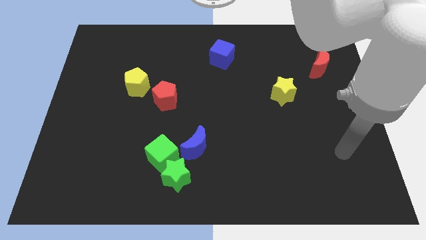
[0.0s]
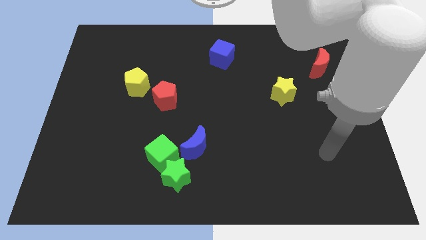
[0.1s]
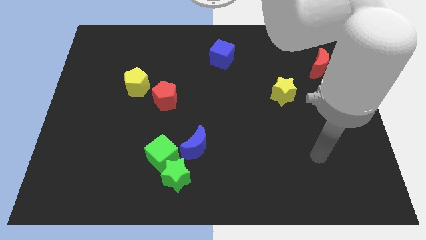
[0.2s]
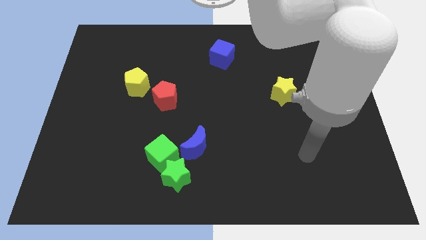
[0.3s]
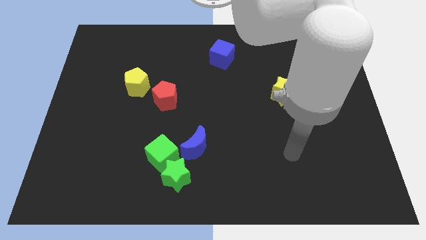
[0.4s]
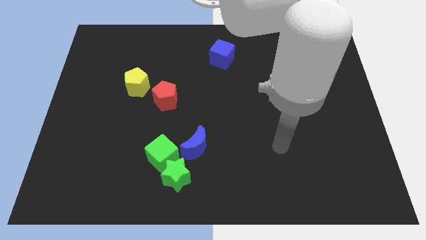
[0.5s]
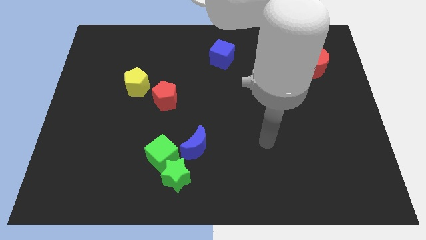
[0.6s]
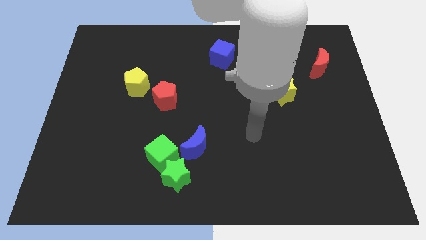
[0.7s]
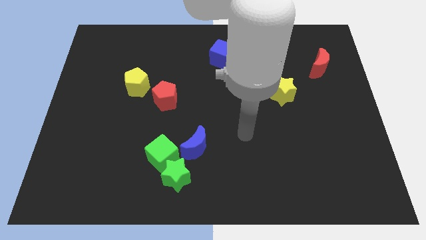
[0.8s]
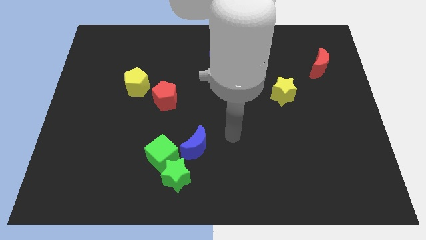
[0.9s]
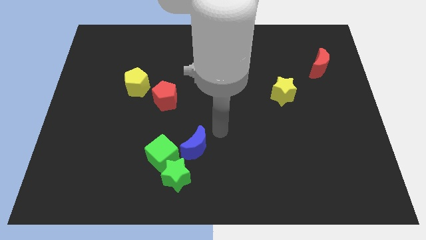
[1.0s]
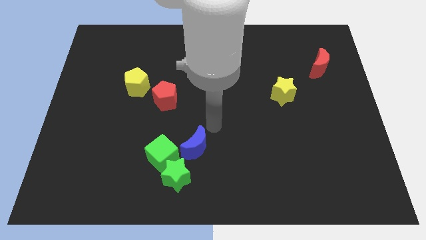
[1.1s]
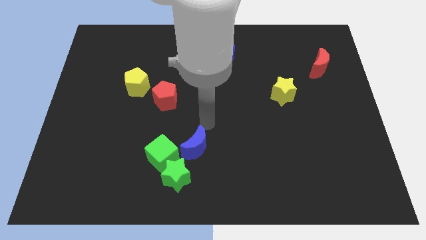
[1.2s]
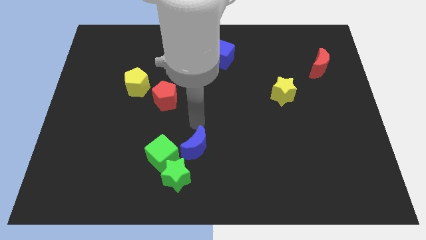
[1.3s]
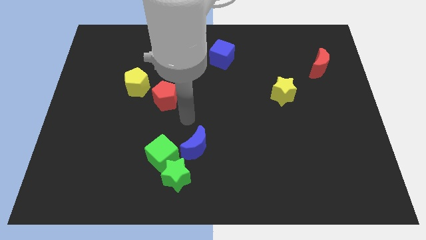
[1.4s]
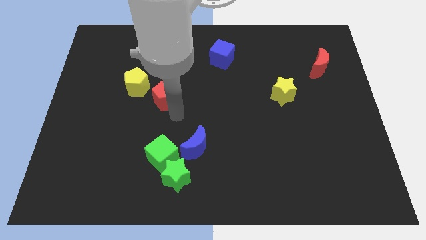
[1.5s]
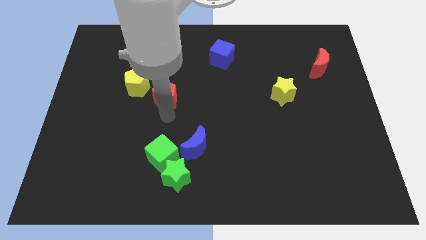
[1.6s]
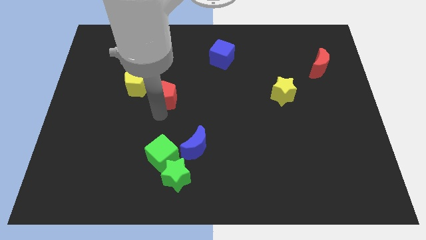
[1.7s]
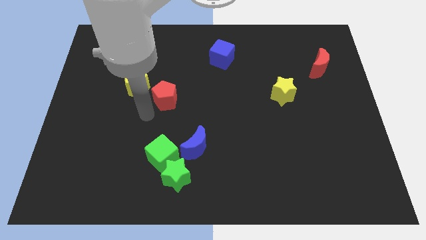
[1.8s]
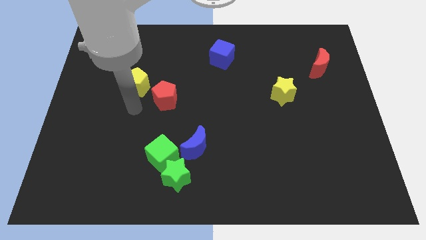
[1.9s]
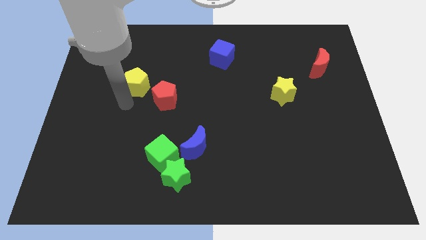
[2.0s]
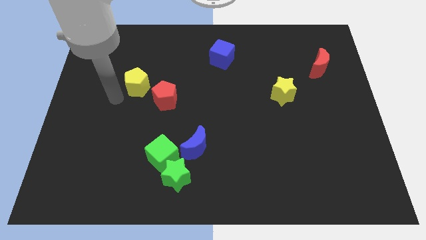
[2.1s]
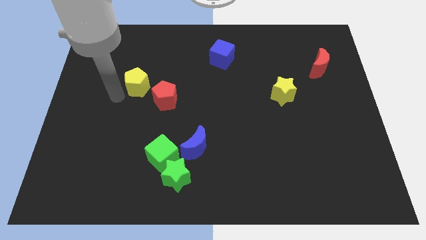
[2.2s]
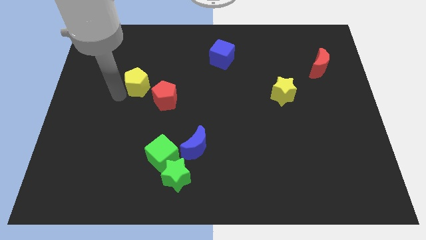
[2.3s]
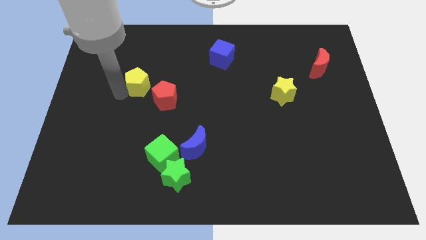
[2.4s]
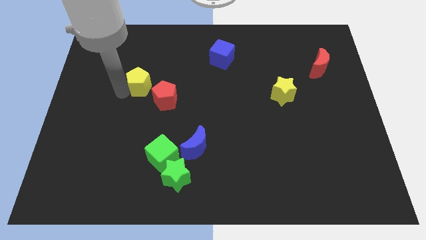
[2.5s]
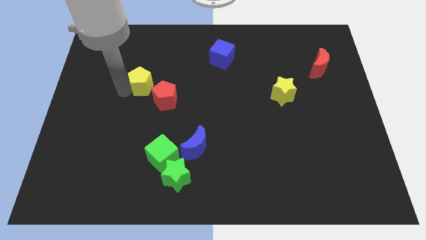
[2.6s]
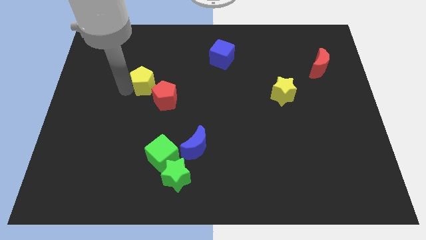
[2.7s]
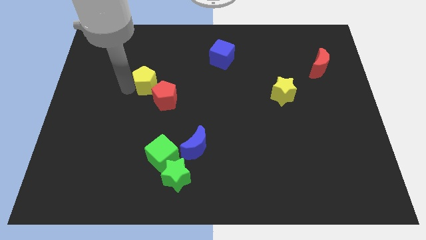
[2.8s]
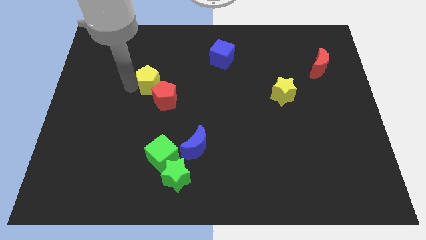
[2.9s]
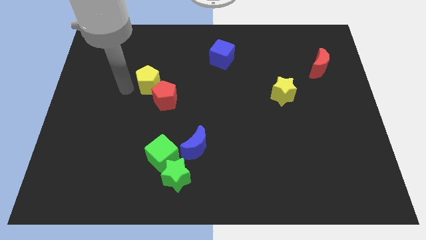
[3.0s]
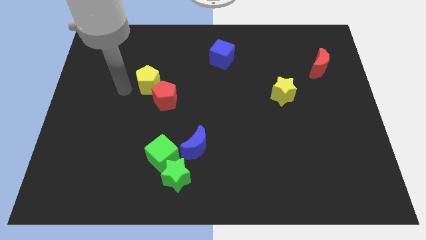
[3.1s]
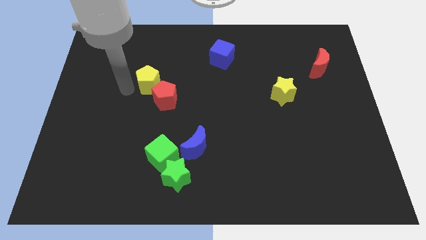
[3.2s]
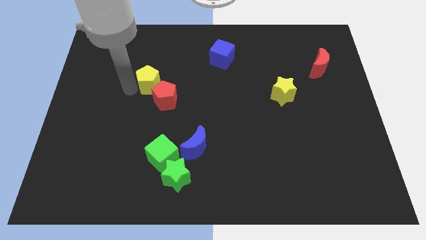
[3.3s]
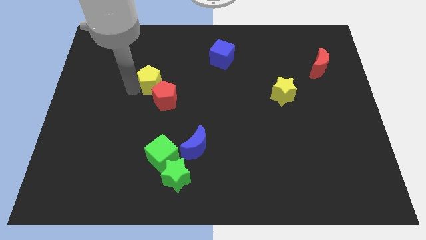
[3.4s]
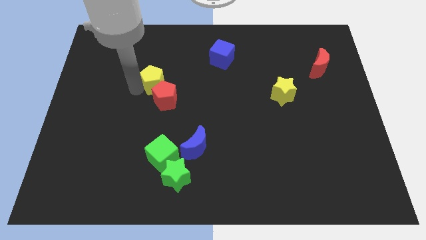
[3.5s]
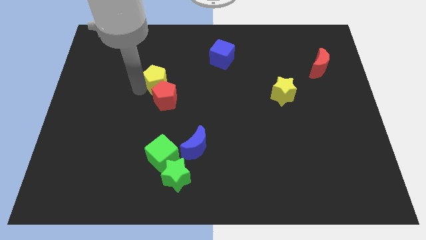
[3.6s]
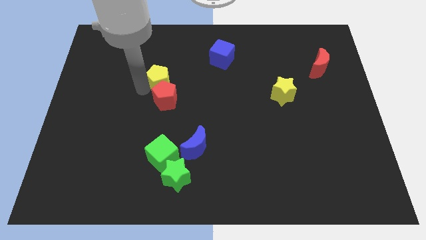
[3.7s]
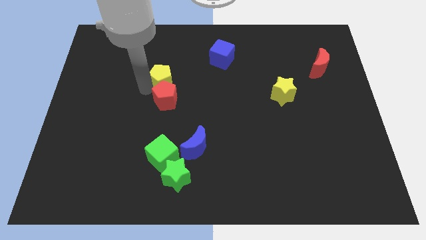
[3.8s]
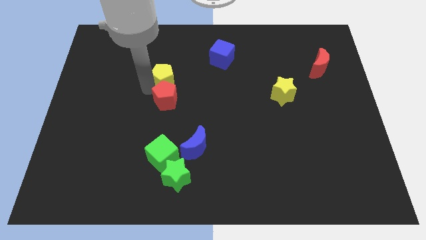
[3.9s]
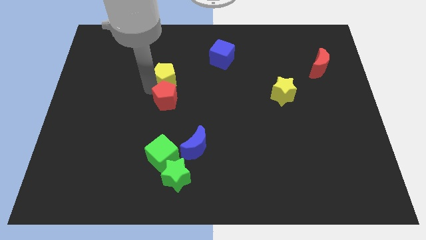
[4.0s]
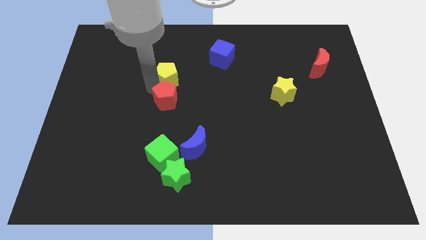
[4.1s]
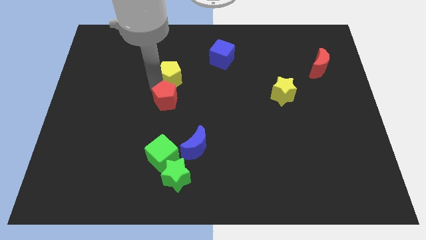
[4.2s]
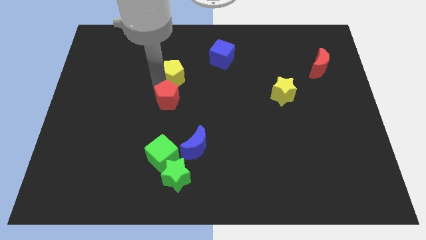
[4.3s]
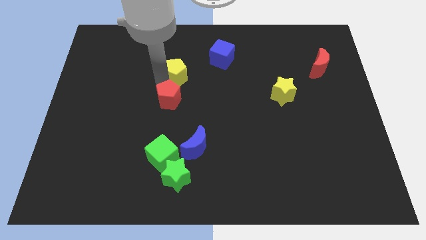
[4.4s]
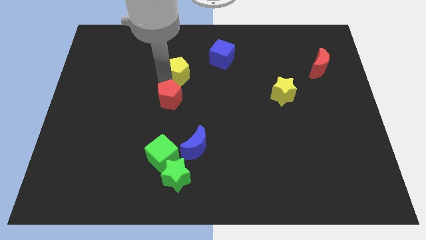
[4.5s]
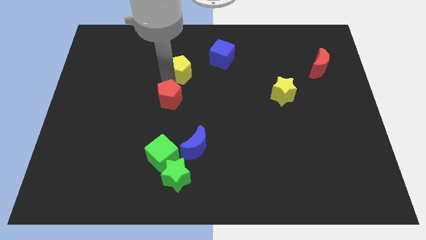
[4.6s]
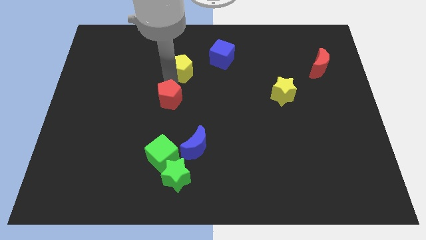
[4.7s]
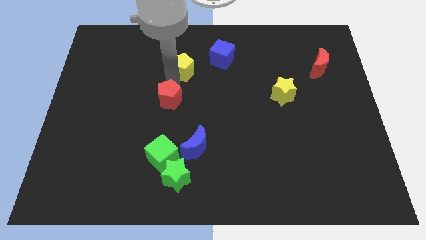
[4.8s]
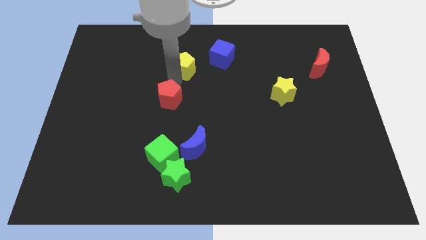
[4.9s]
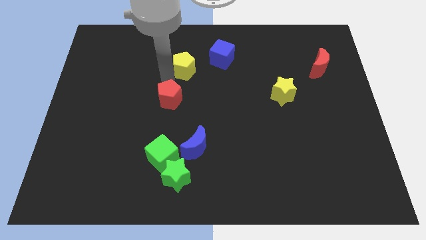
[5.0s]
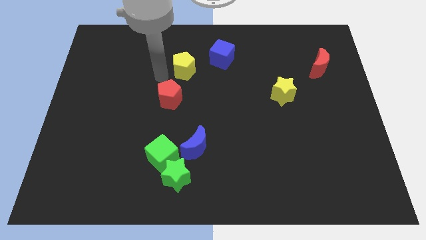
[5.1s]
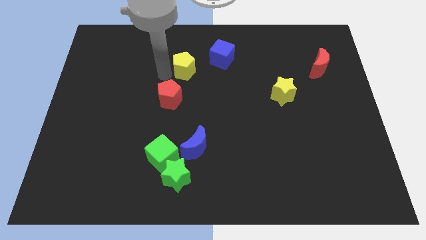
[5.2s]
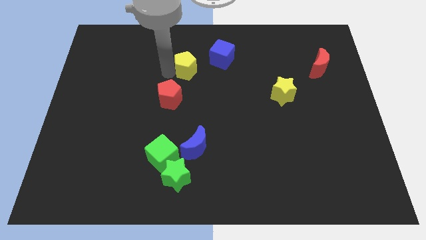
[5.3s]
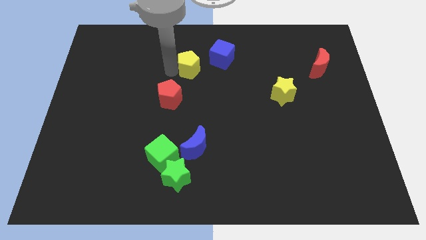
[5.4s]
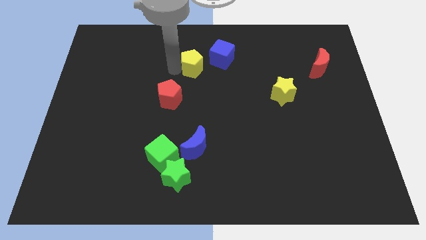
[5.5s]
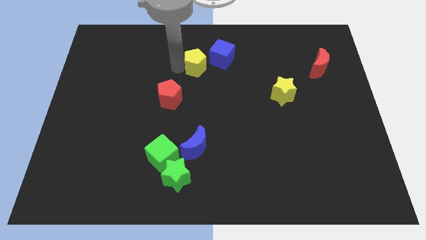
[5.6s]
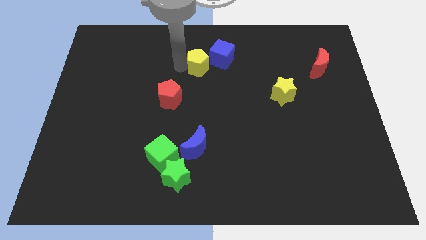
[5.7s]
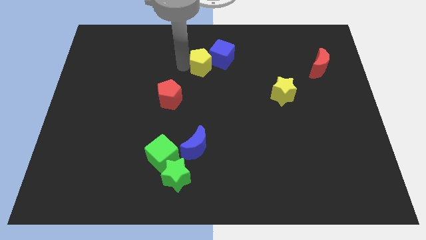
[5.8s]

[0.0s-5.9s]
put the yellow pentagon close to the blue cube
